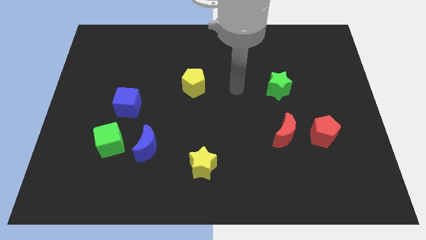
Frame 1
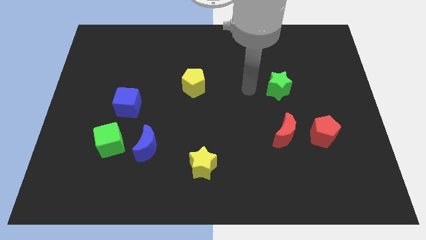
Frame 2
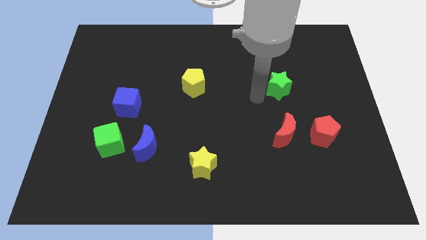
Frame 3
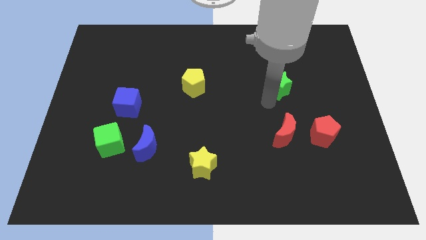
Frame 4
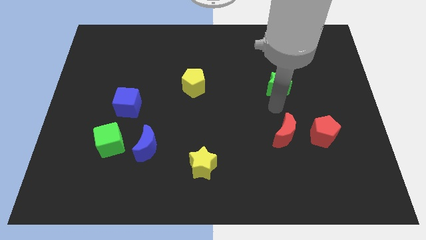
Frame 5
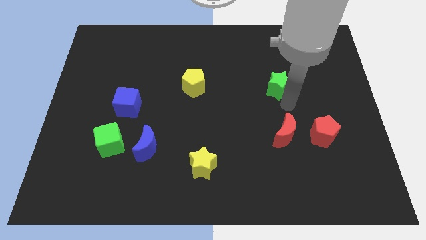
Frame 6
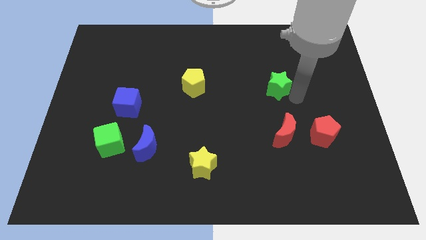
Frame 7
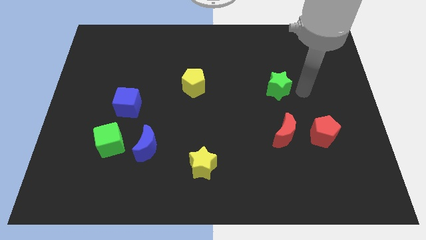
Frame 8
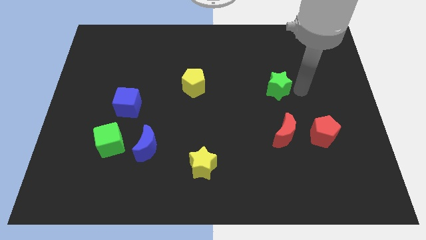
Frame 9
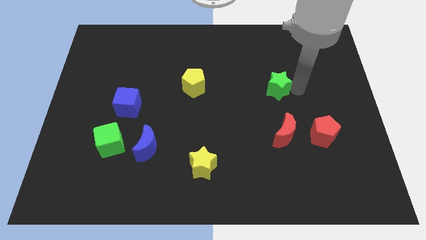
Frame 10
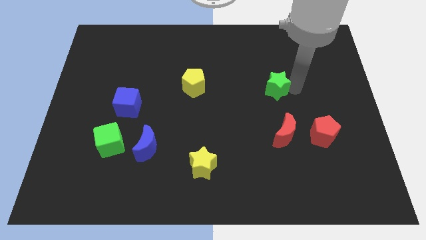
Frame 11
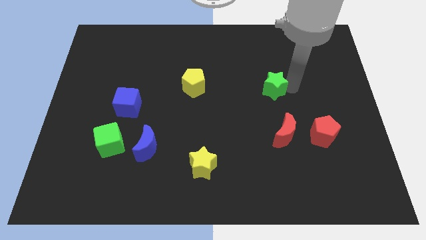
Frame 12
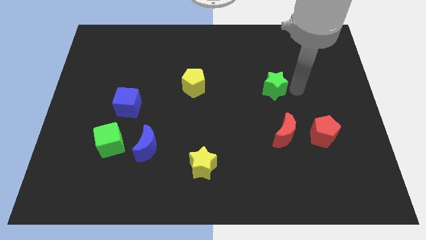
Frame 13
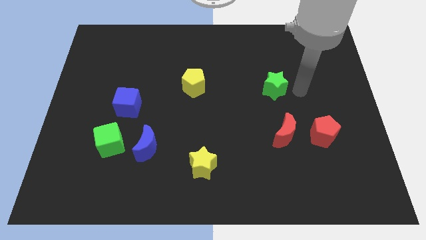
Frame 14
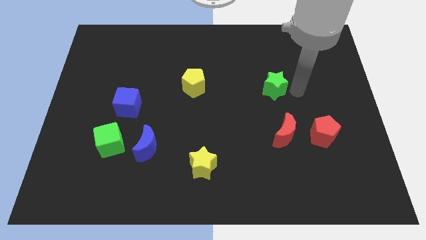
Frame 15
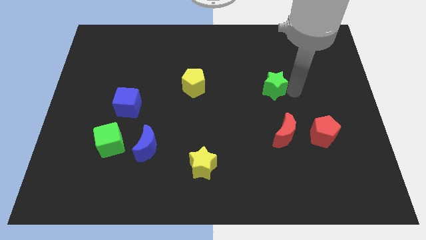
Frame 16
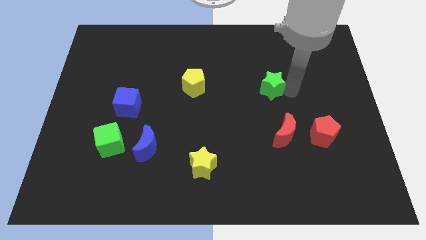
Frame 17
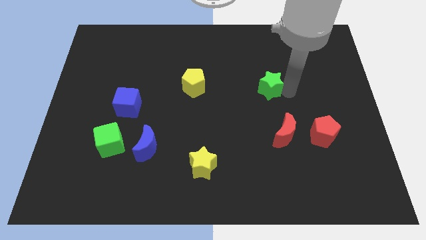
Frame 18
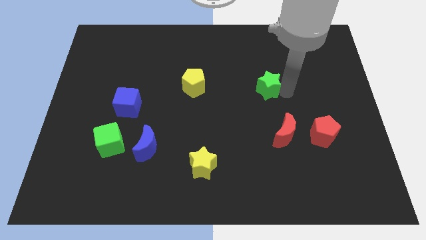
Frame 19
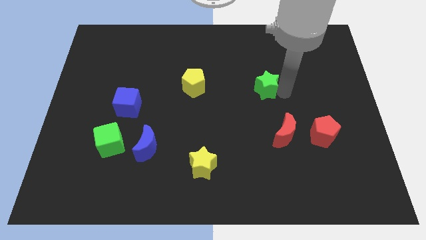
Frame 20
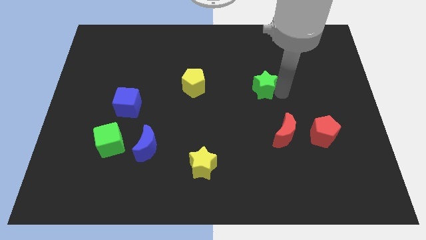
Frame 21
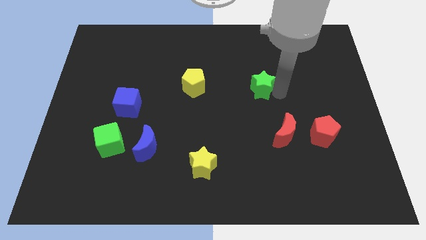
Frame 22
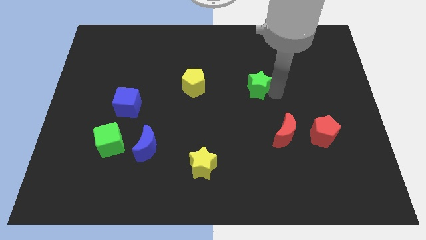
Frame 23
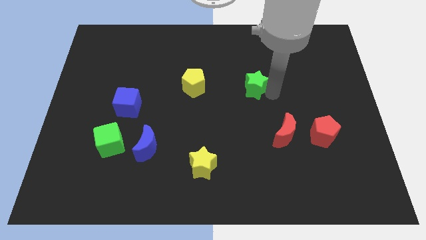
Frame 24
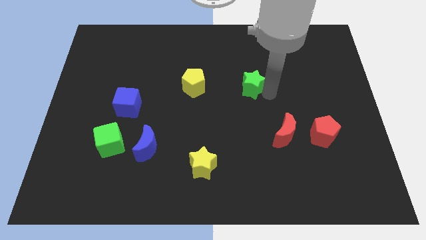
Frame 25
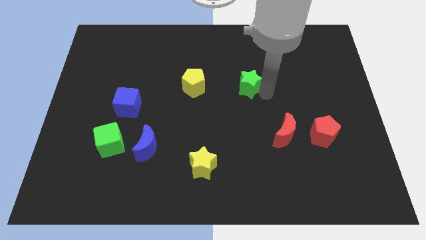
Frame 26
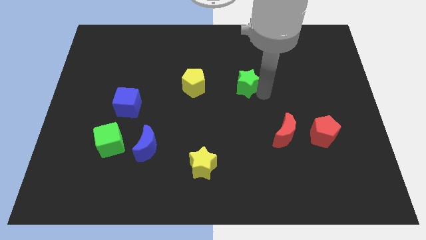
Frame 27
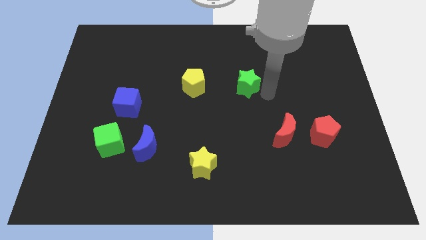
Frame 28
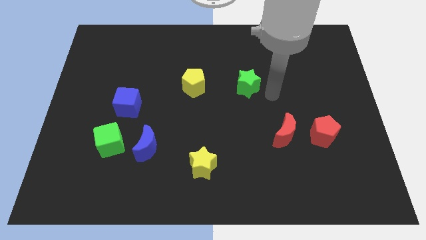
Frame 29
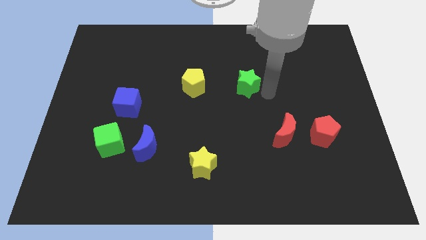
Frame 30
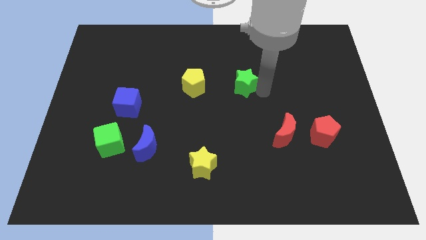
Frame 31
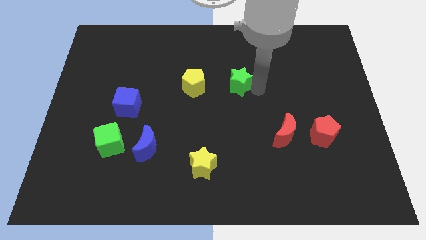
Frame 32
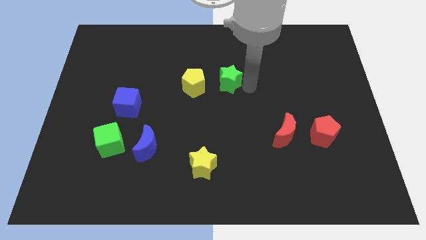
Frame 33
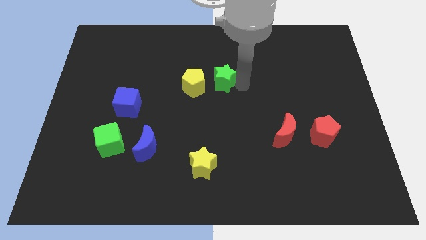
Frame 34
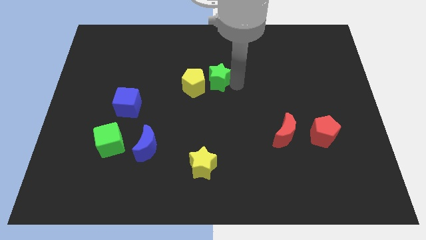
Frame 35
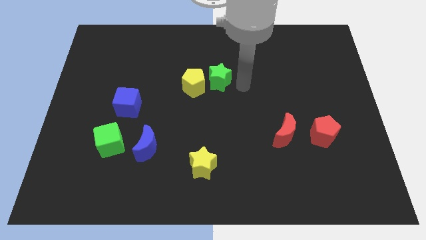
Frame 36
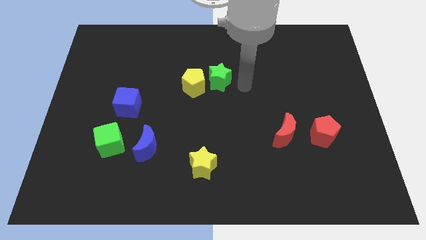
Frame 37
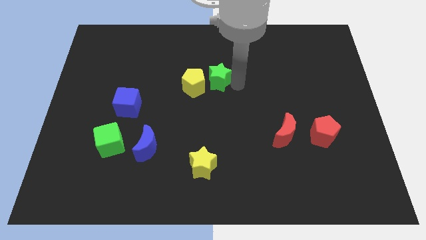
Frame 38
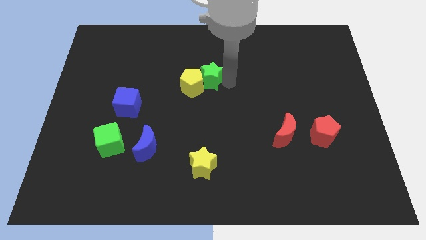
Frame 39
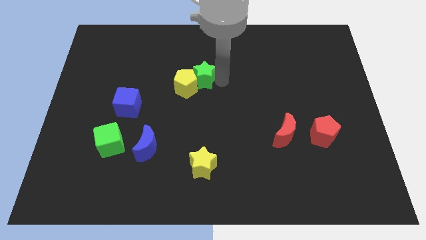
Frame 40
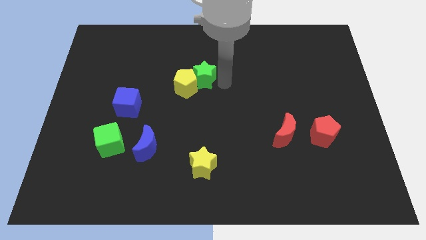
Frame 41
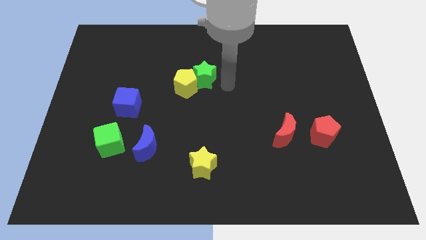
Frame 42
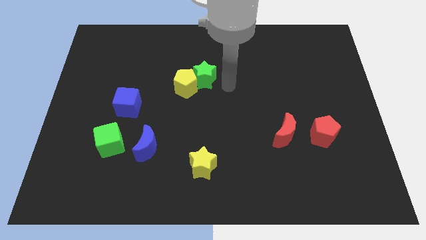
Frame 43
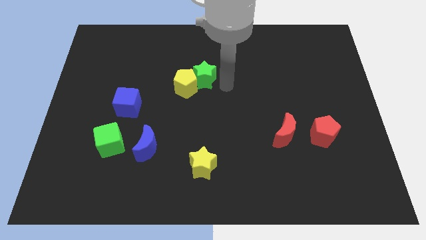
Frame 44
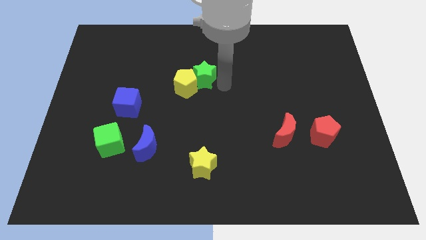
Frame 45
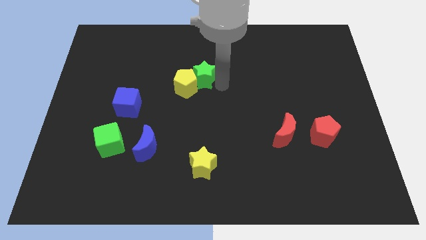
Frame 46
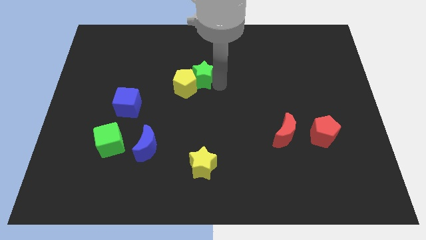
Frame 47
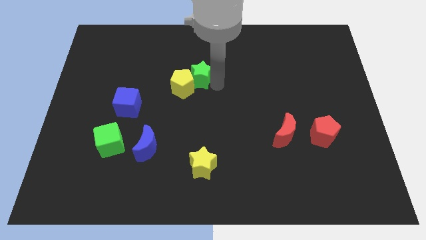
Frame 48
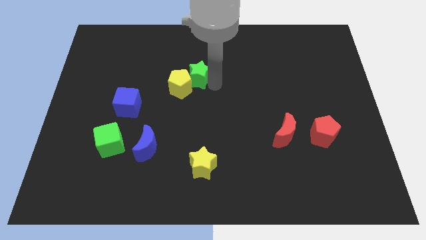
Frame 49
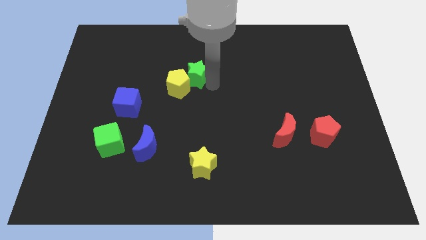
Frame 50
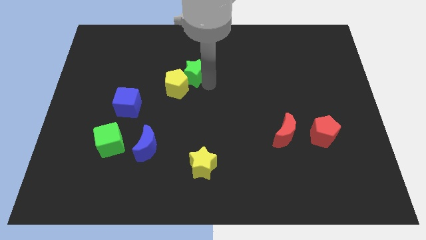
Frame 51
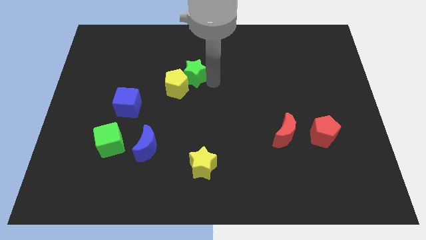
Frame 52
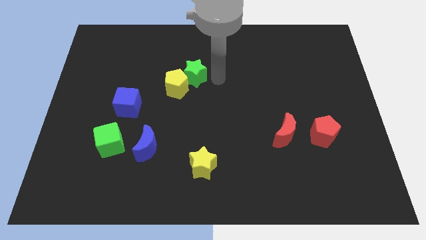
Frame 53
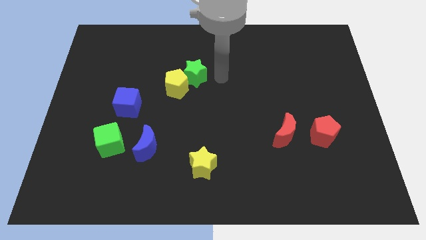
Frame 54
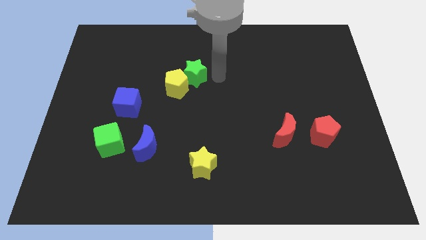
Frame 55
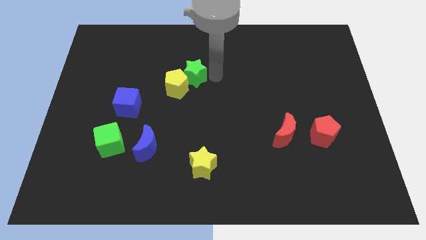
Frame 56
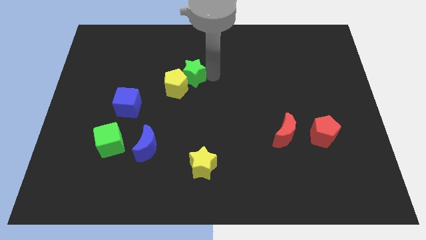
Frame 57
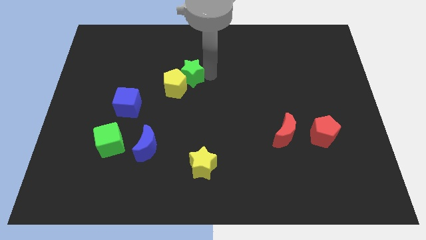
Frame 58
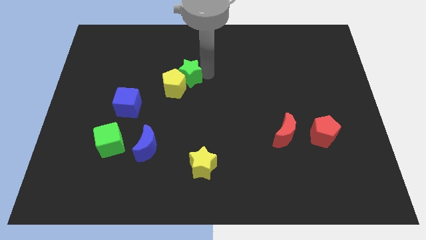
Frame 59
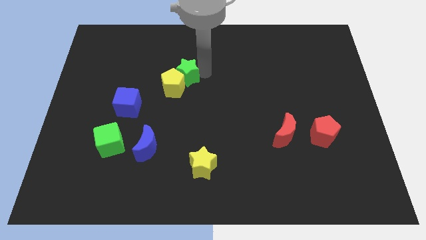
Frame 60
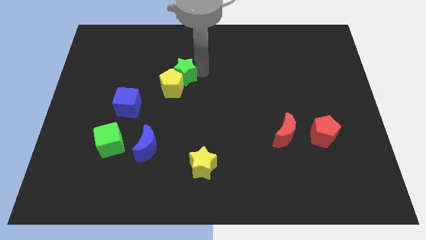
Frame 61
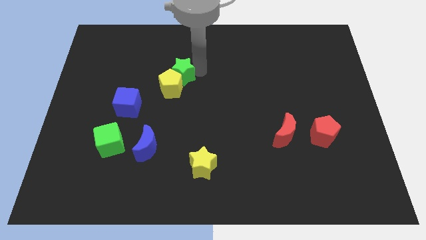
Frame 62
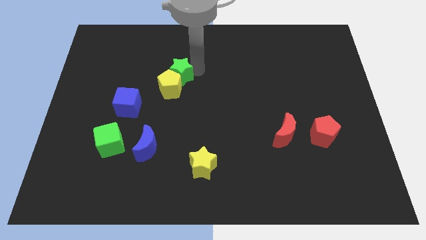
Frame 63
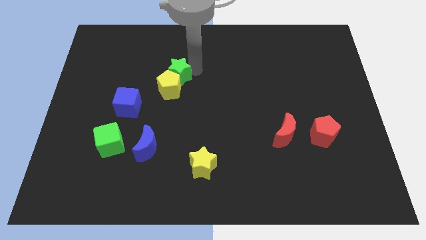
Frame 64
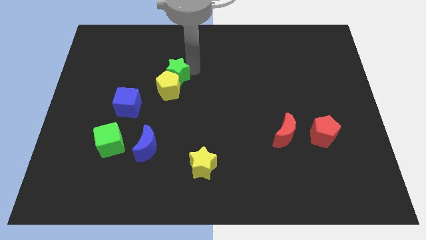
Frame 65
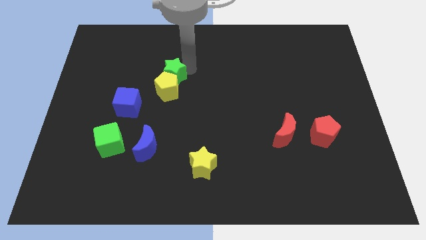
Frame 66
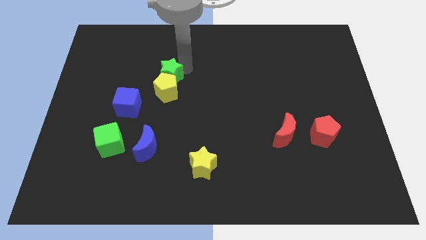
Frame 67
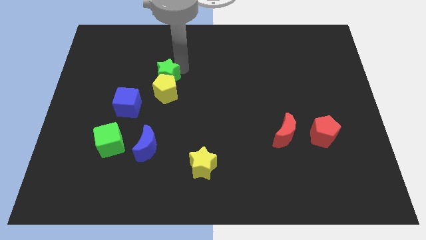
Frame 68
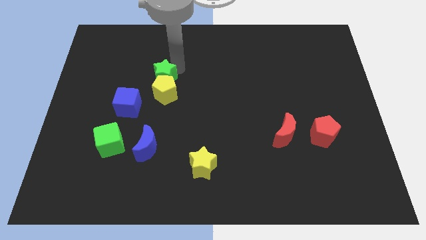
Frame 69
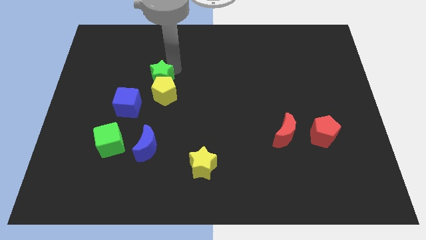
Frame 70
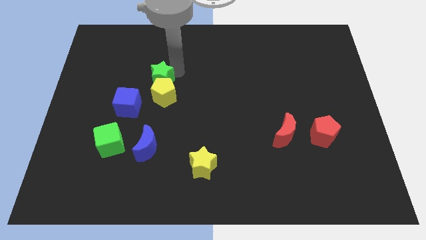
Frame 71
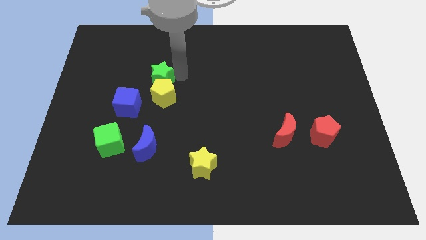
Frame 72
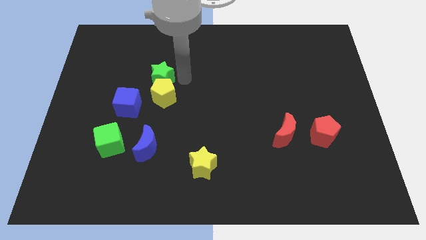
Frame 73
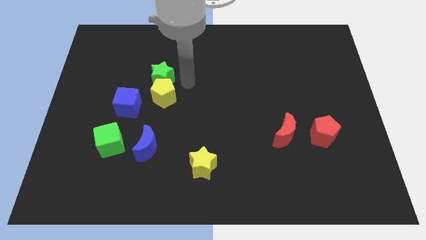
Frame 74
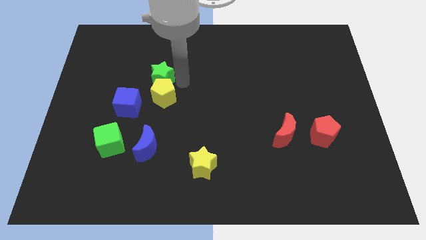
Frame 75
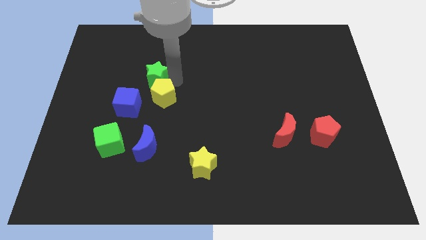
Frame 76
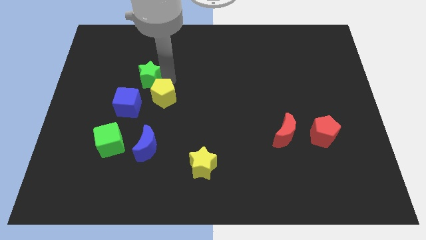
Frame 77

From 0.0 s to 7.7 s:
put the green star to the top side of the blue cube
